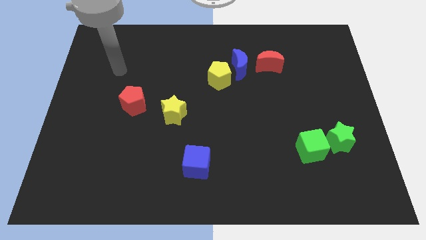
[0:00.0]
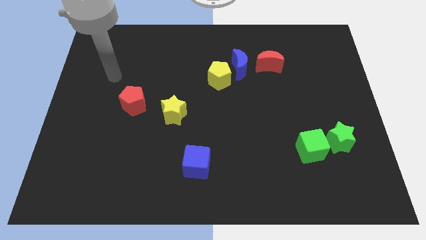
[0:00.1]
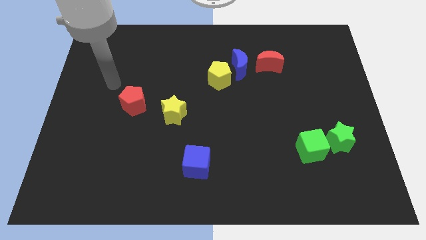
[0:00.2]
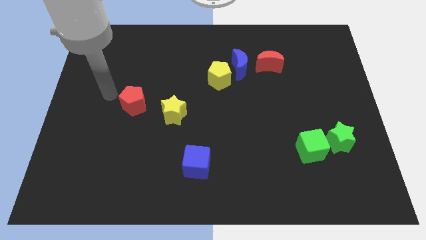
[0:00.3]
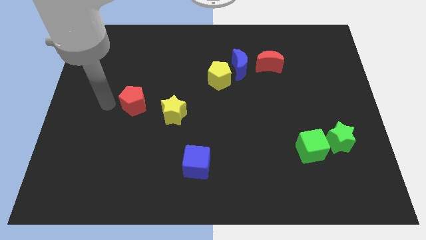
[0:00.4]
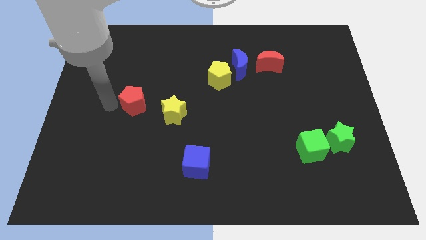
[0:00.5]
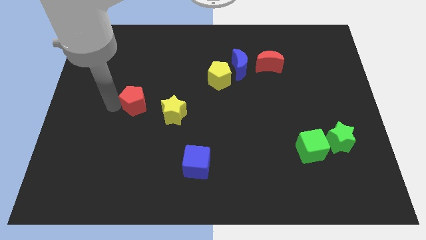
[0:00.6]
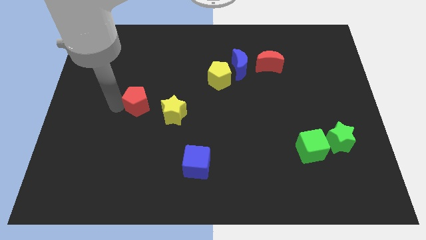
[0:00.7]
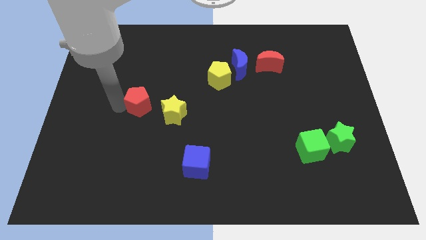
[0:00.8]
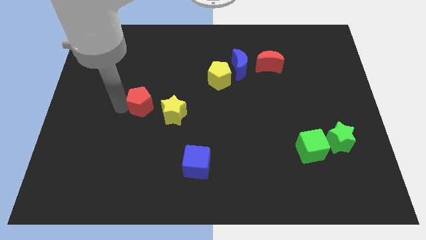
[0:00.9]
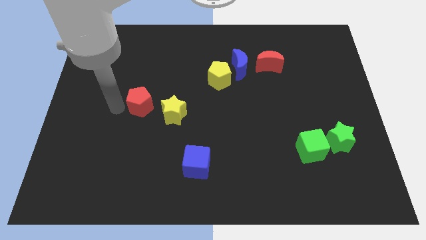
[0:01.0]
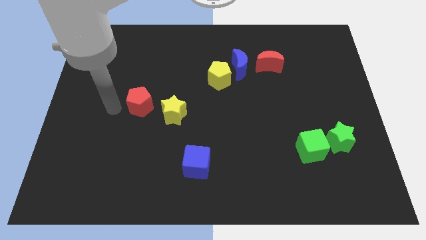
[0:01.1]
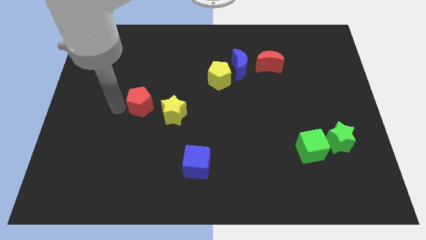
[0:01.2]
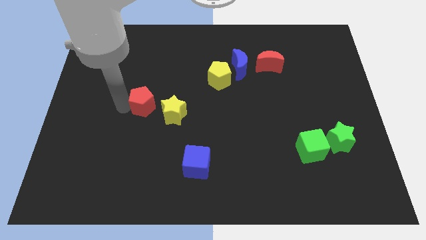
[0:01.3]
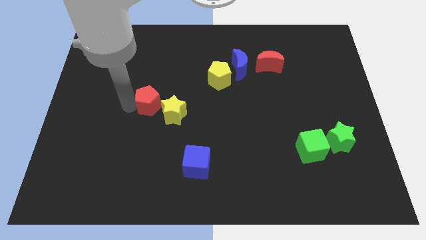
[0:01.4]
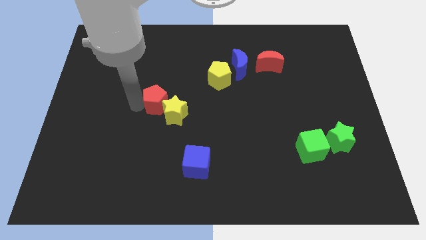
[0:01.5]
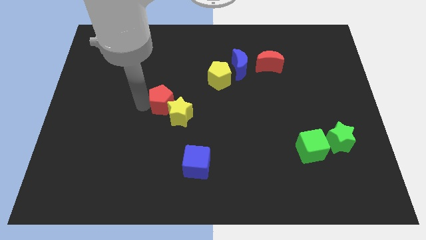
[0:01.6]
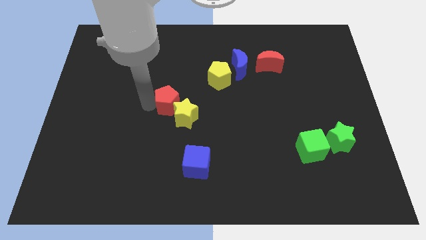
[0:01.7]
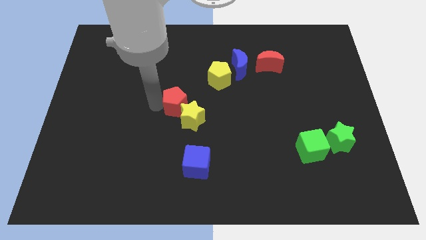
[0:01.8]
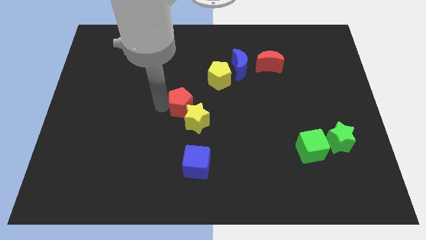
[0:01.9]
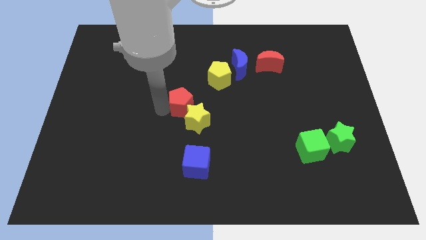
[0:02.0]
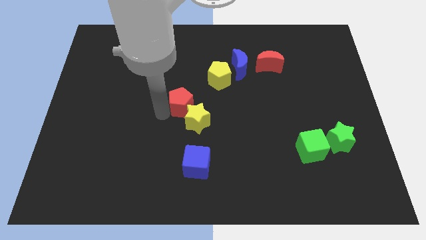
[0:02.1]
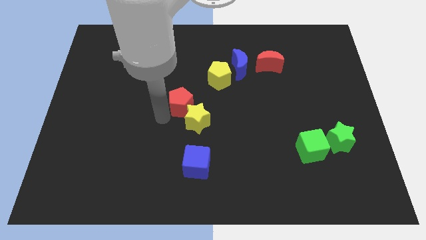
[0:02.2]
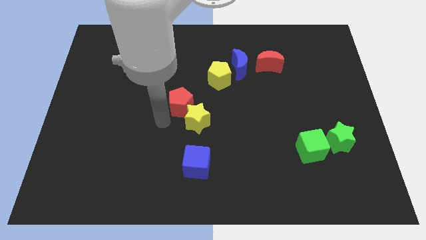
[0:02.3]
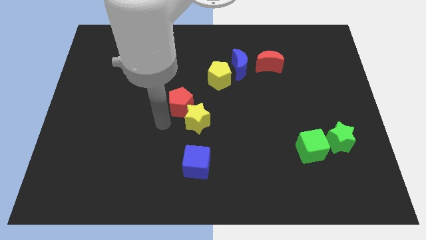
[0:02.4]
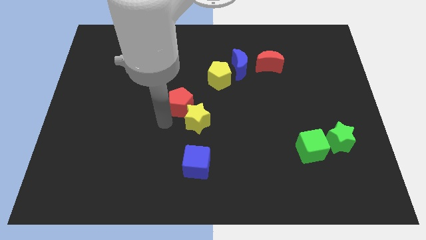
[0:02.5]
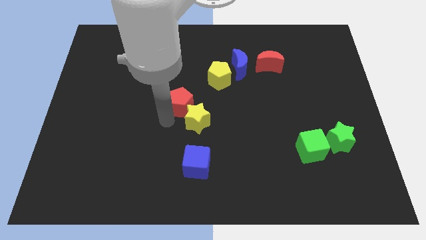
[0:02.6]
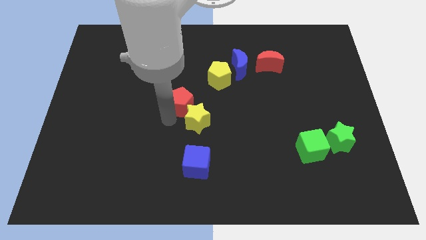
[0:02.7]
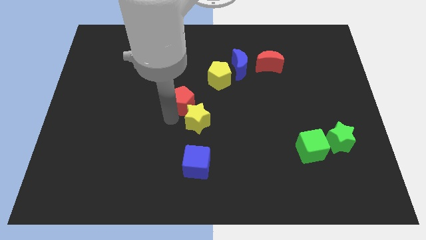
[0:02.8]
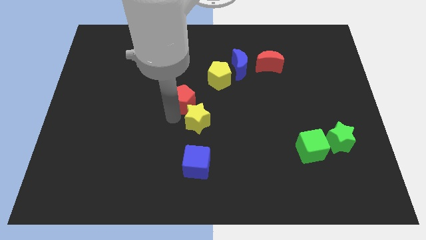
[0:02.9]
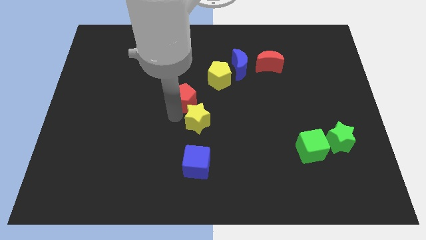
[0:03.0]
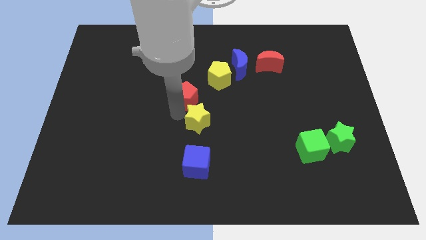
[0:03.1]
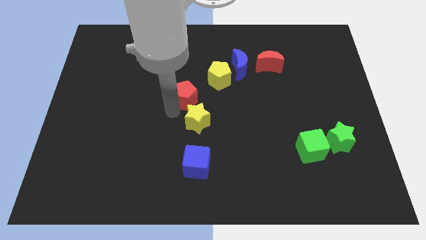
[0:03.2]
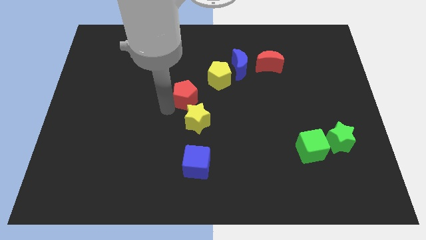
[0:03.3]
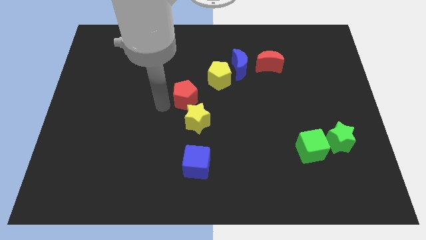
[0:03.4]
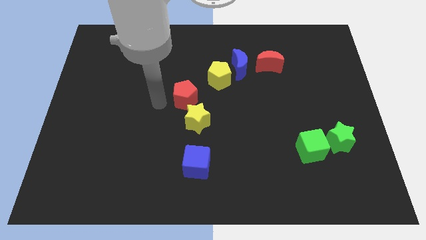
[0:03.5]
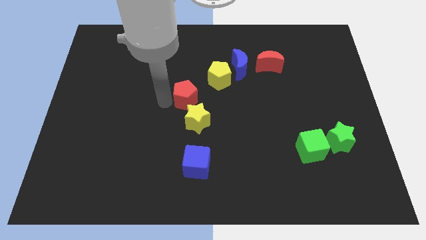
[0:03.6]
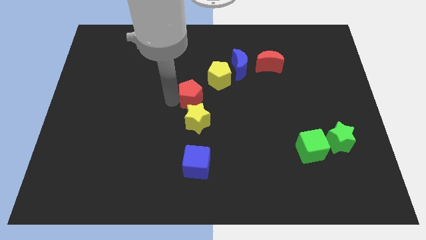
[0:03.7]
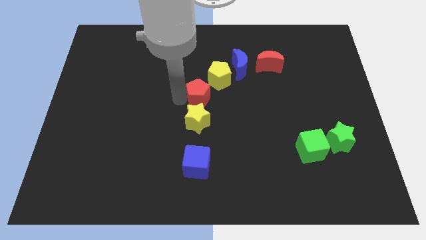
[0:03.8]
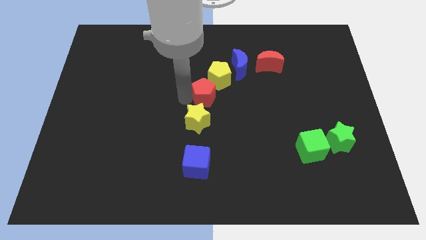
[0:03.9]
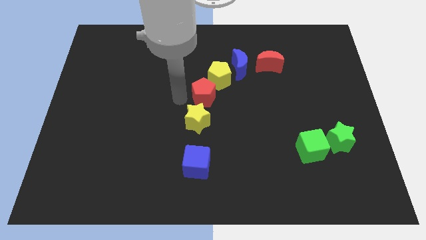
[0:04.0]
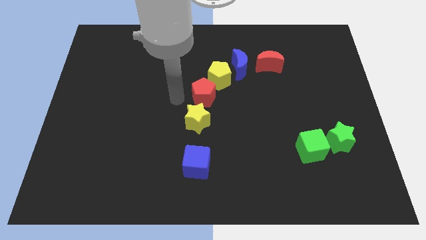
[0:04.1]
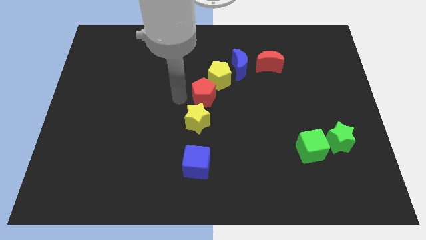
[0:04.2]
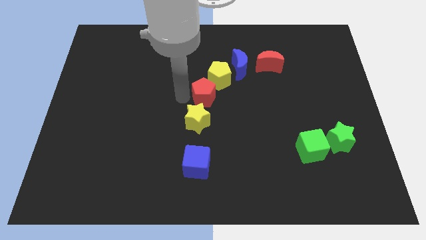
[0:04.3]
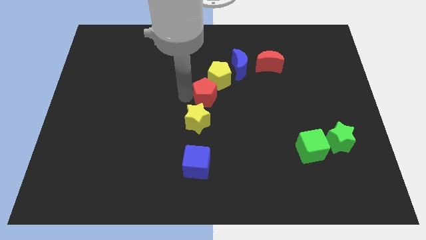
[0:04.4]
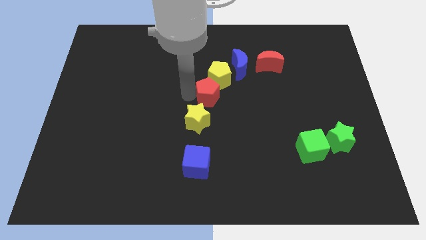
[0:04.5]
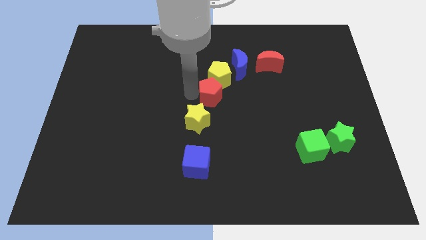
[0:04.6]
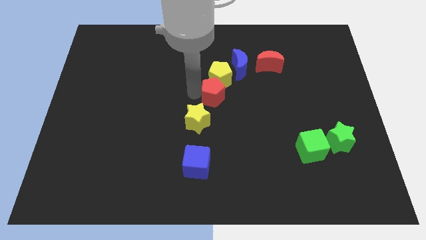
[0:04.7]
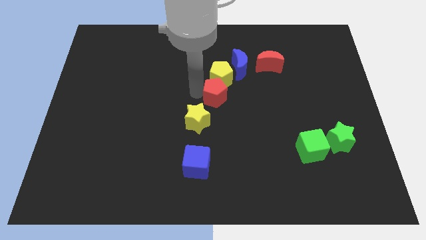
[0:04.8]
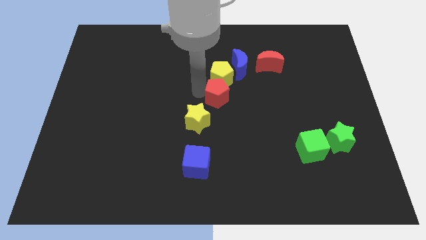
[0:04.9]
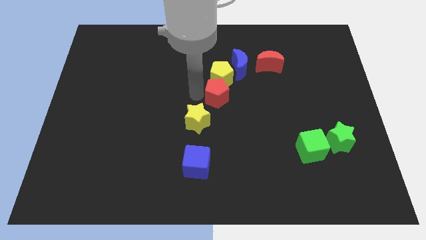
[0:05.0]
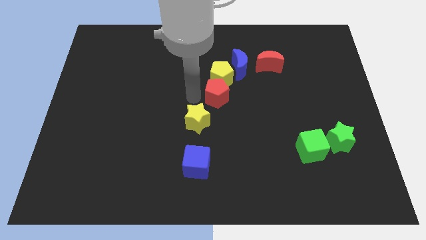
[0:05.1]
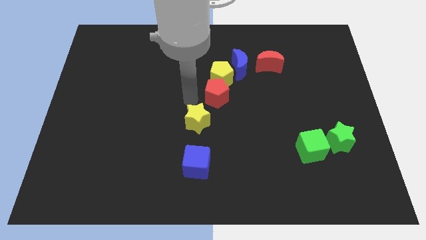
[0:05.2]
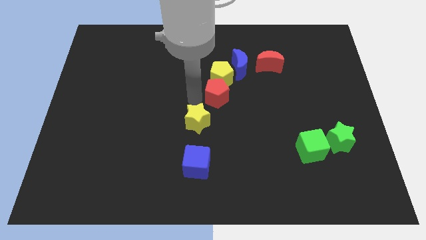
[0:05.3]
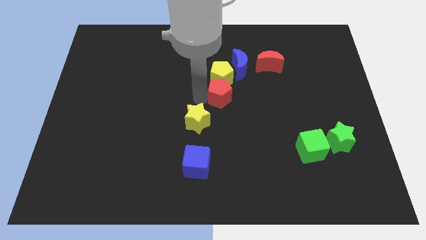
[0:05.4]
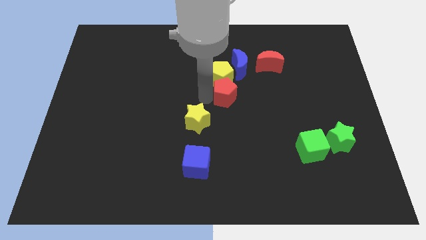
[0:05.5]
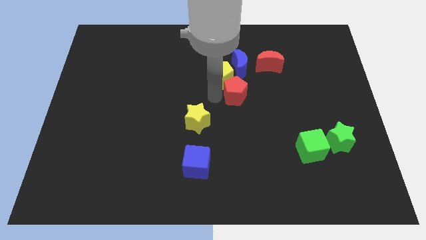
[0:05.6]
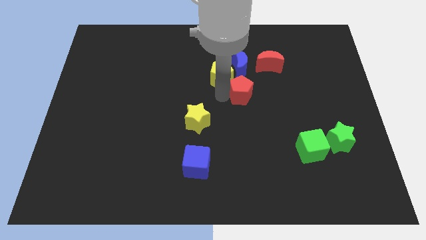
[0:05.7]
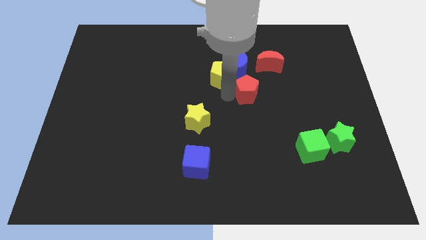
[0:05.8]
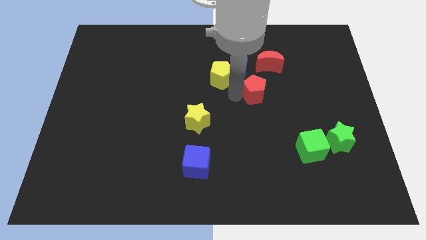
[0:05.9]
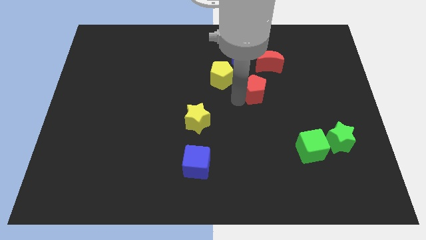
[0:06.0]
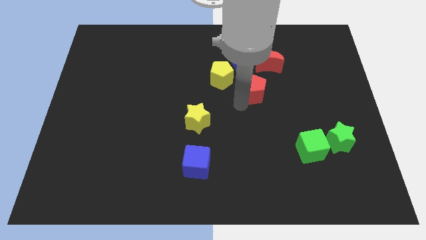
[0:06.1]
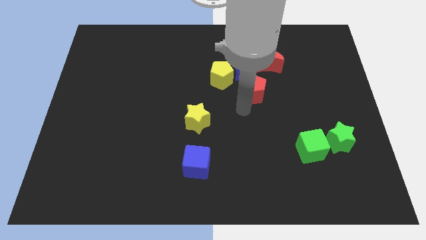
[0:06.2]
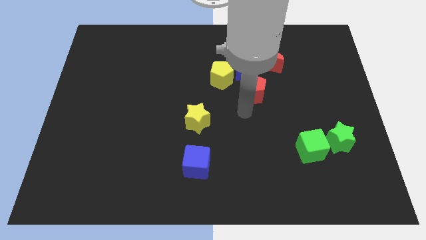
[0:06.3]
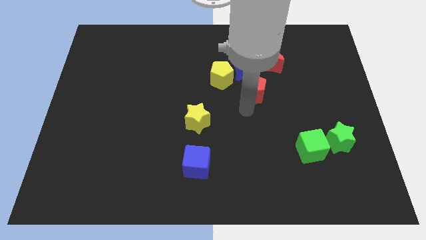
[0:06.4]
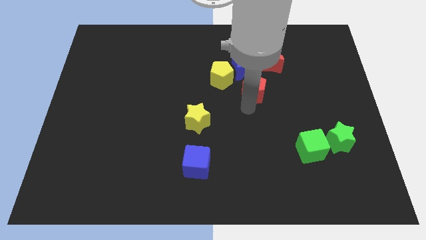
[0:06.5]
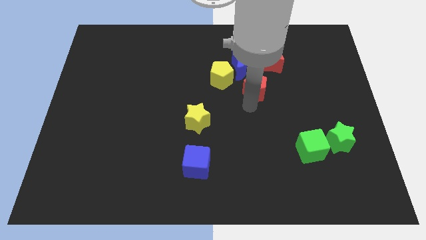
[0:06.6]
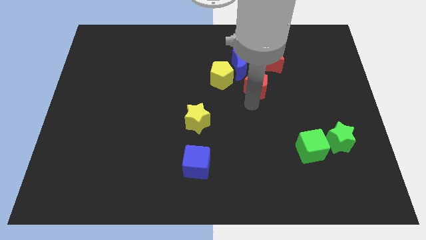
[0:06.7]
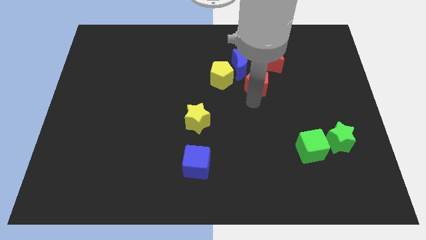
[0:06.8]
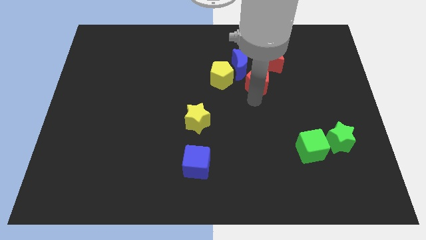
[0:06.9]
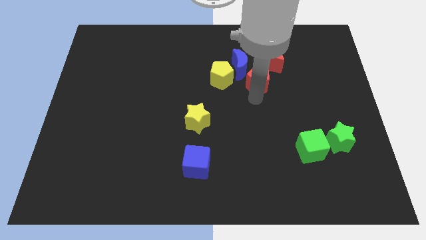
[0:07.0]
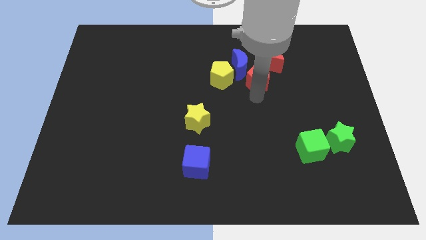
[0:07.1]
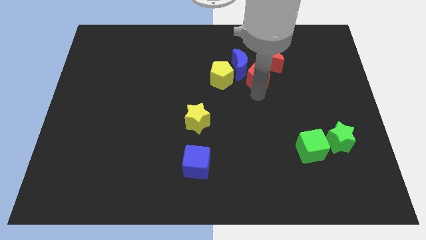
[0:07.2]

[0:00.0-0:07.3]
slide the red pentagon next to the red moon
